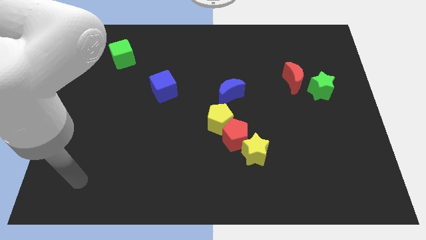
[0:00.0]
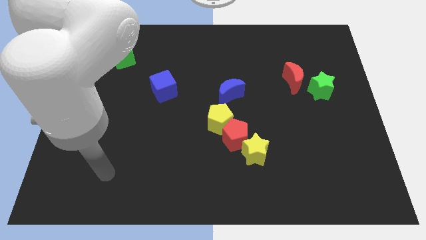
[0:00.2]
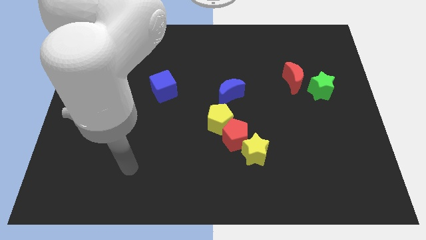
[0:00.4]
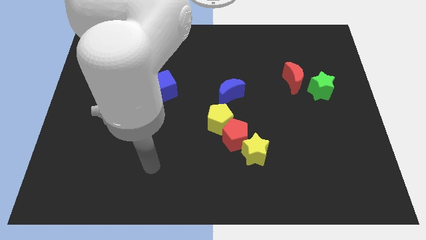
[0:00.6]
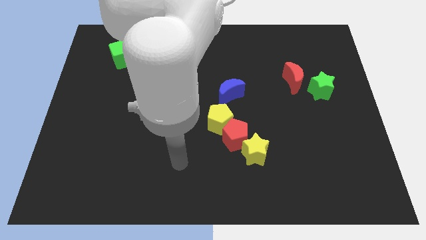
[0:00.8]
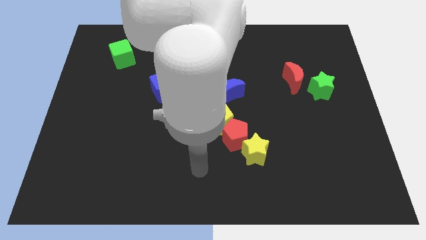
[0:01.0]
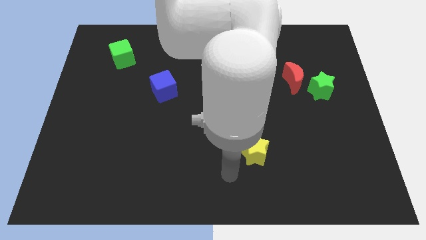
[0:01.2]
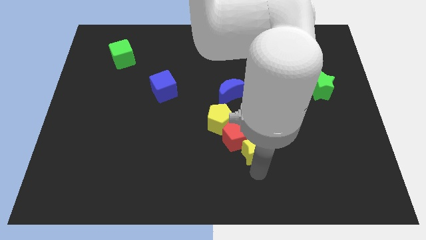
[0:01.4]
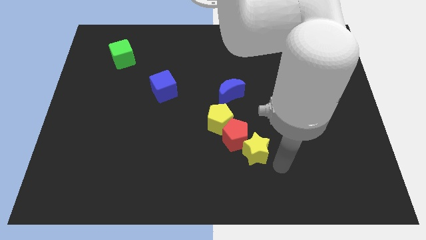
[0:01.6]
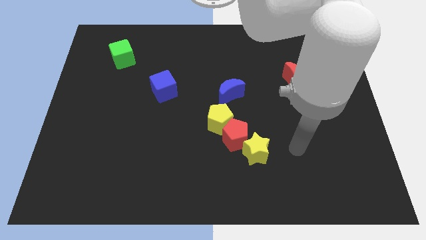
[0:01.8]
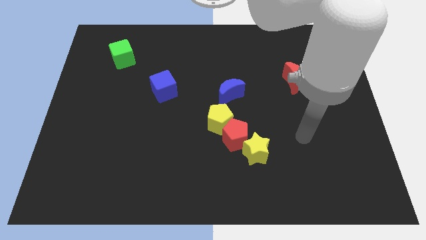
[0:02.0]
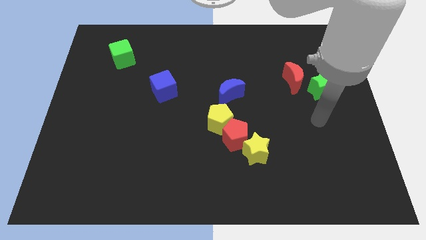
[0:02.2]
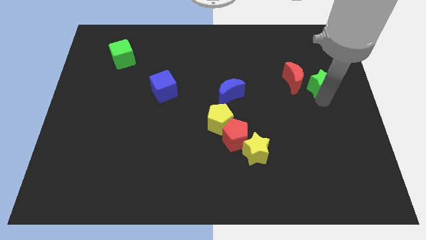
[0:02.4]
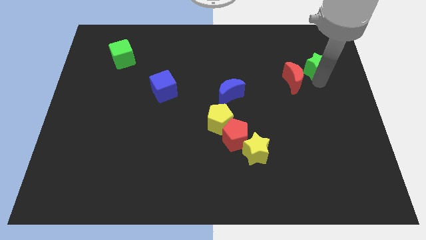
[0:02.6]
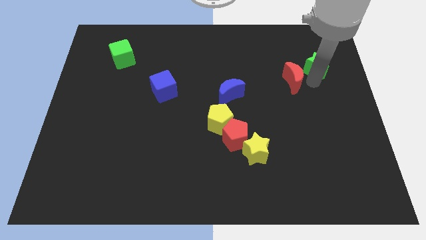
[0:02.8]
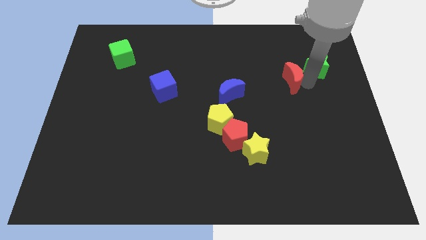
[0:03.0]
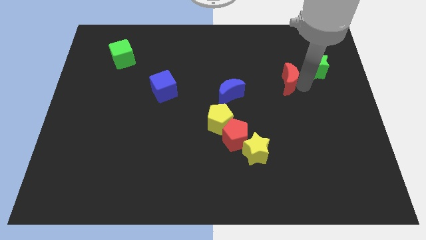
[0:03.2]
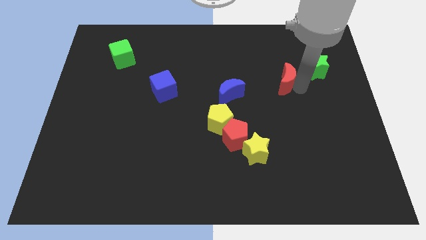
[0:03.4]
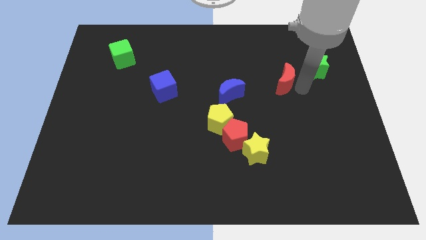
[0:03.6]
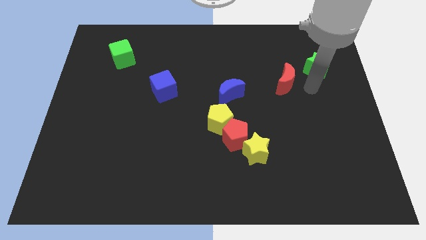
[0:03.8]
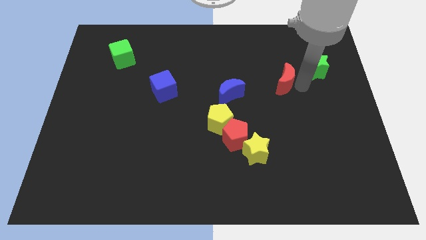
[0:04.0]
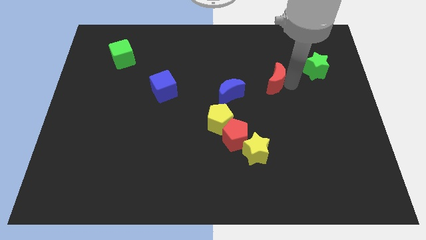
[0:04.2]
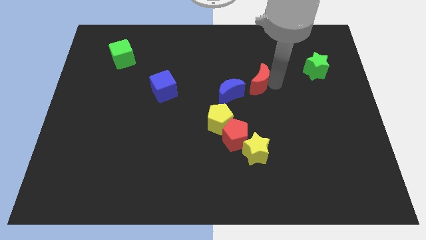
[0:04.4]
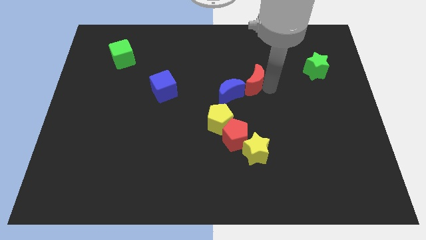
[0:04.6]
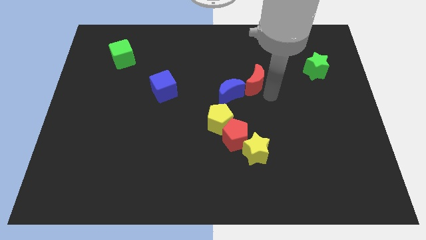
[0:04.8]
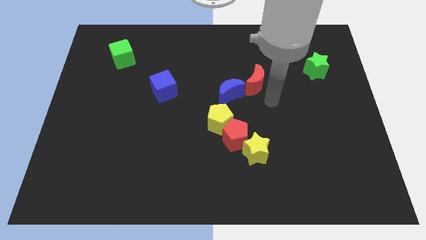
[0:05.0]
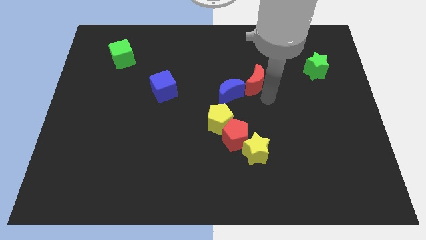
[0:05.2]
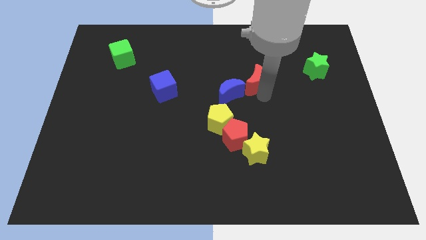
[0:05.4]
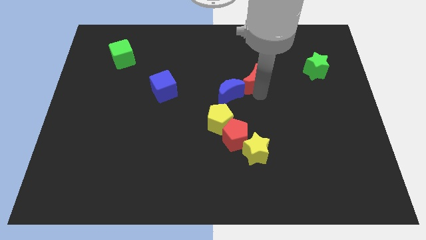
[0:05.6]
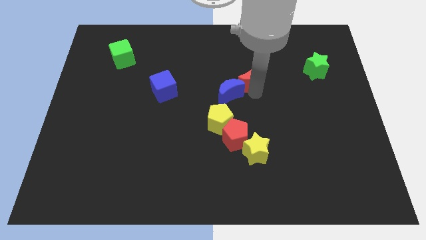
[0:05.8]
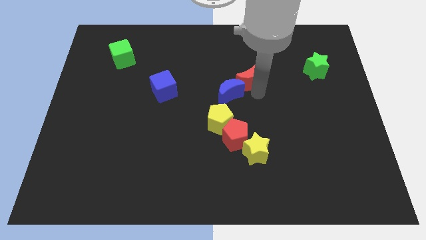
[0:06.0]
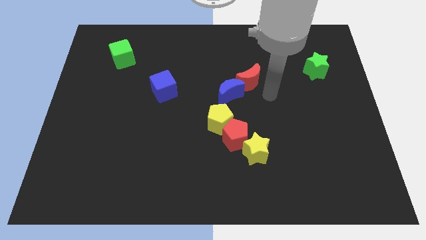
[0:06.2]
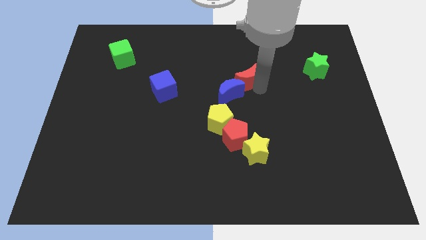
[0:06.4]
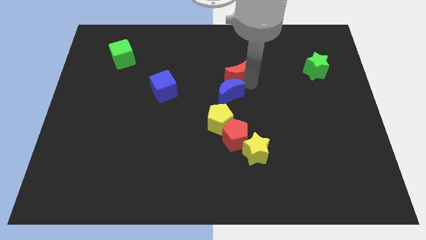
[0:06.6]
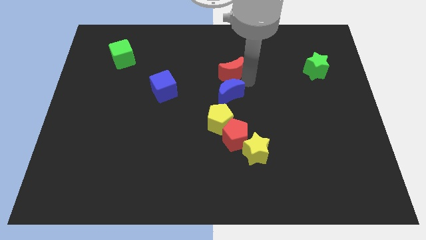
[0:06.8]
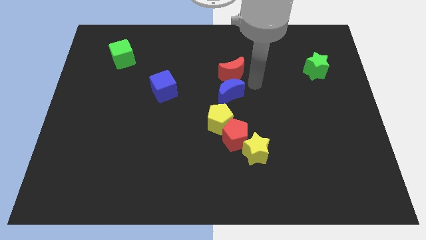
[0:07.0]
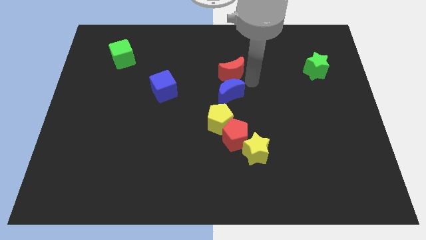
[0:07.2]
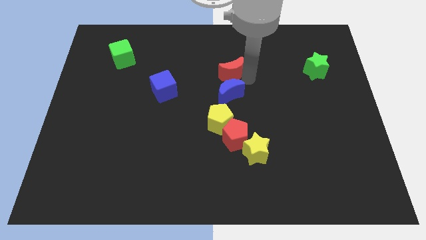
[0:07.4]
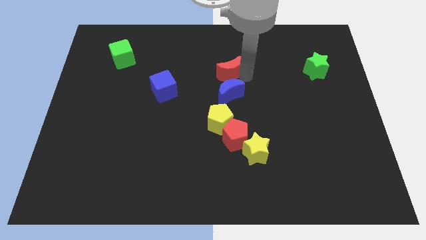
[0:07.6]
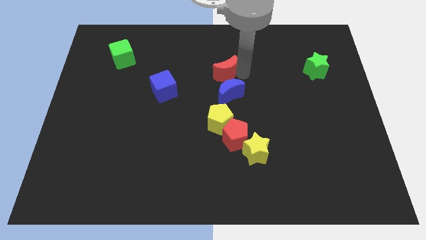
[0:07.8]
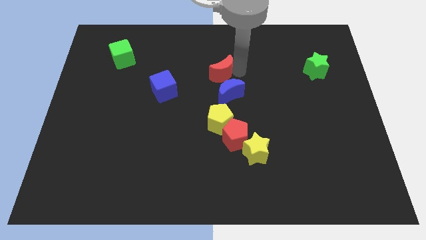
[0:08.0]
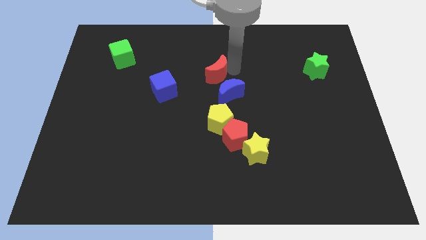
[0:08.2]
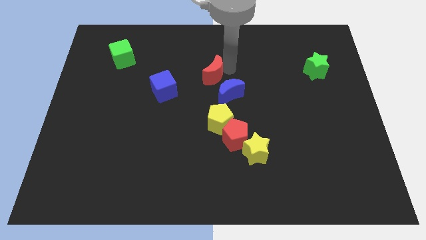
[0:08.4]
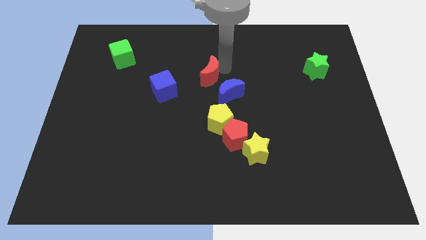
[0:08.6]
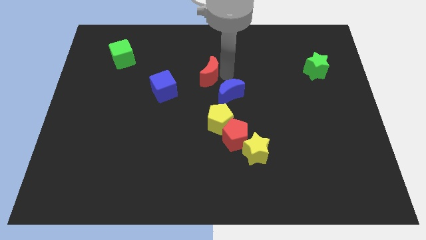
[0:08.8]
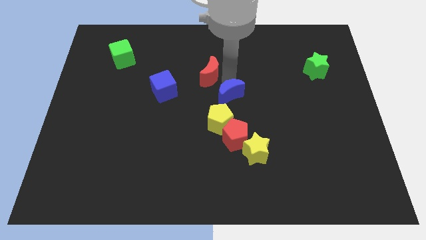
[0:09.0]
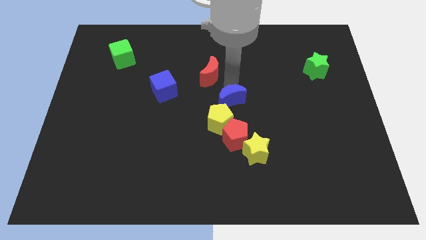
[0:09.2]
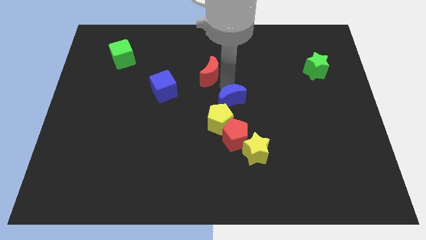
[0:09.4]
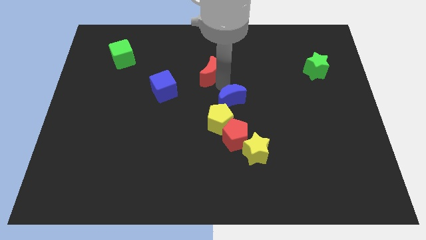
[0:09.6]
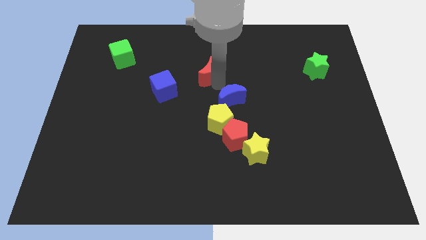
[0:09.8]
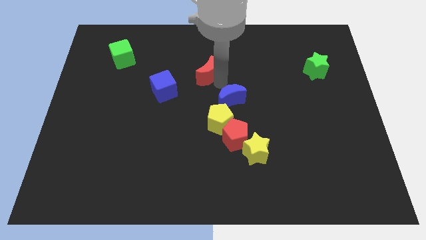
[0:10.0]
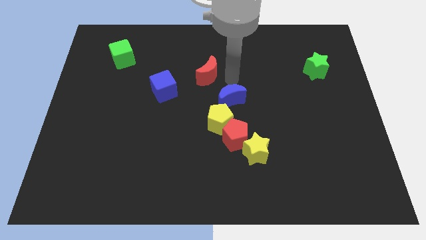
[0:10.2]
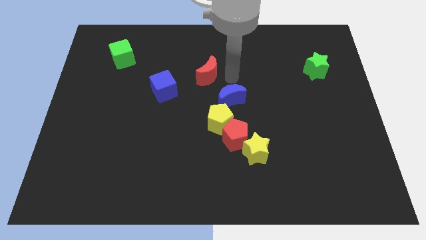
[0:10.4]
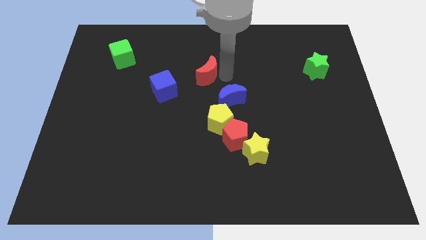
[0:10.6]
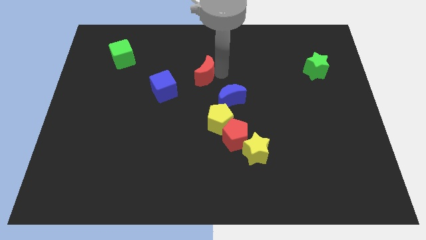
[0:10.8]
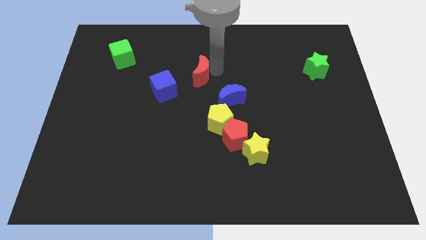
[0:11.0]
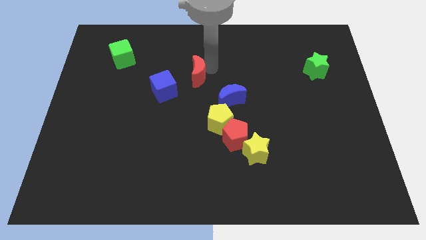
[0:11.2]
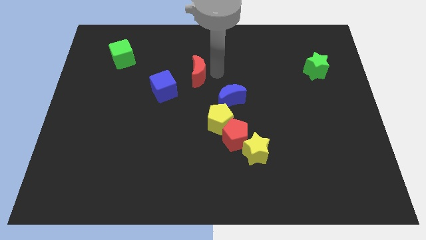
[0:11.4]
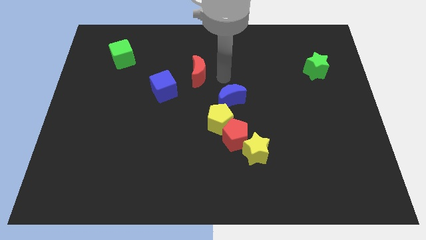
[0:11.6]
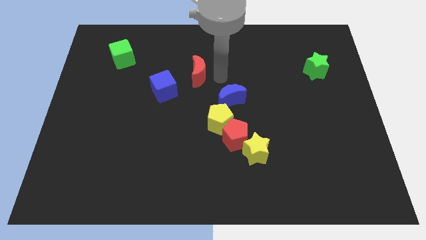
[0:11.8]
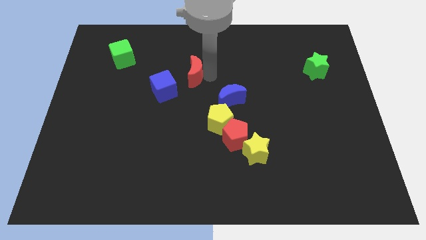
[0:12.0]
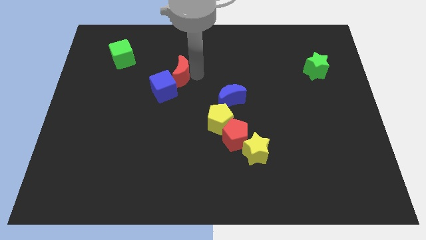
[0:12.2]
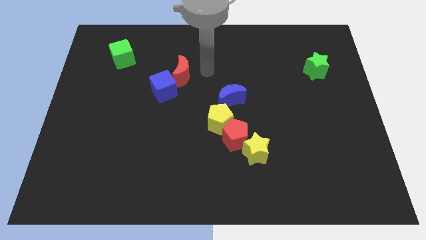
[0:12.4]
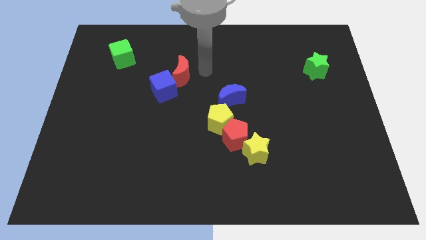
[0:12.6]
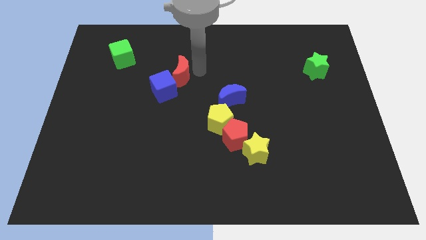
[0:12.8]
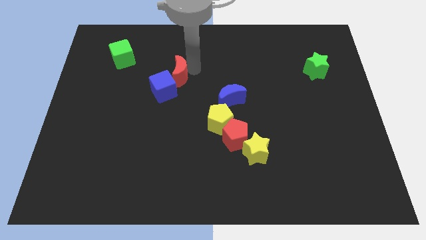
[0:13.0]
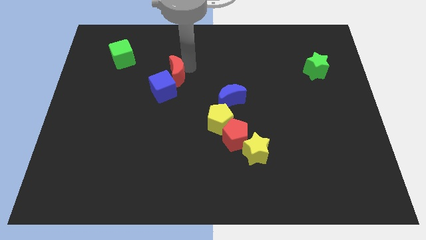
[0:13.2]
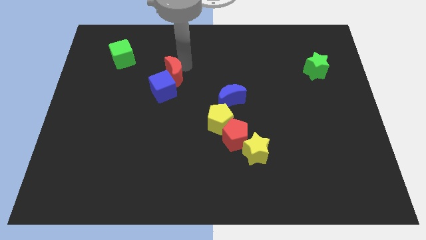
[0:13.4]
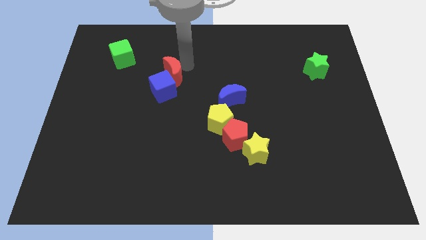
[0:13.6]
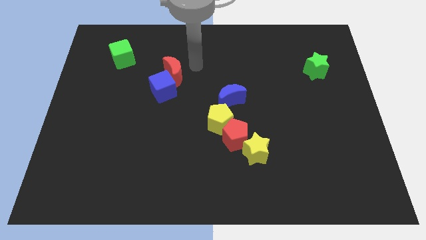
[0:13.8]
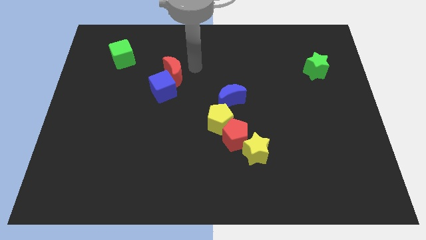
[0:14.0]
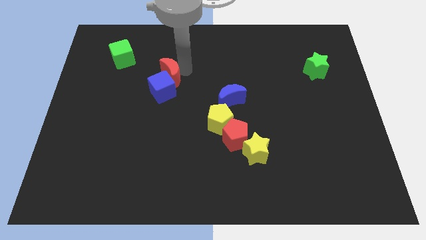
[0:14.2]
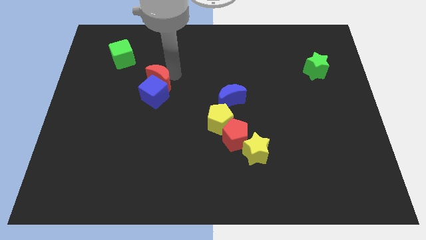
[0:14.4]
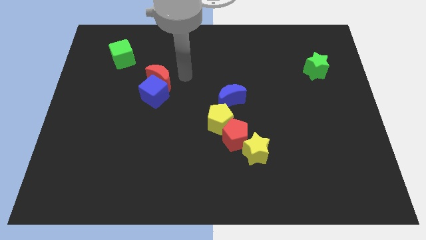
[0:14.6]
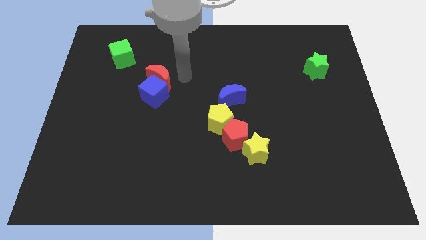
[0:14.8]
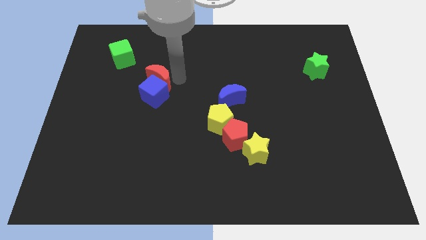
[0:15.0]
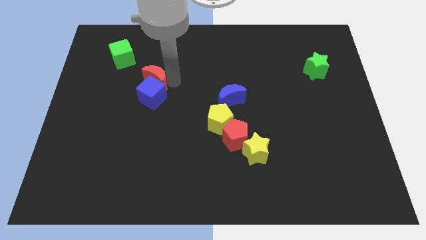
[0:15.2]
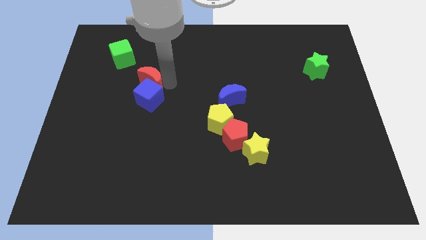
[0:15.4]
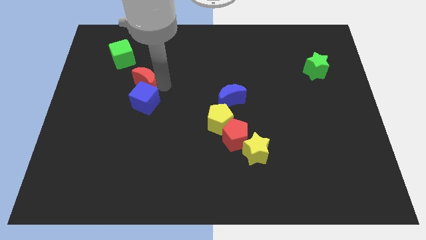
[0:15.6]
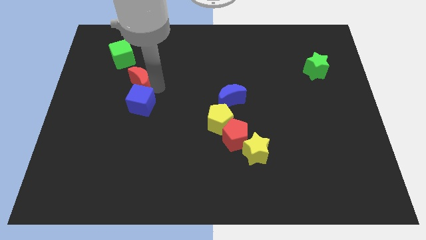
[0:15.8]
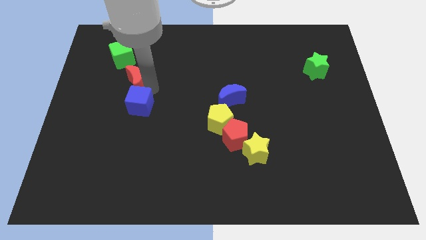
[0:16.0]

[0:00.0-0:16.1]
move the red moon below the green cube
